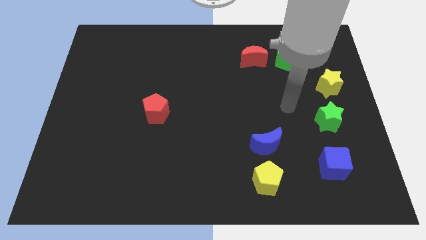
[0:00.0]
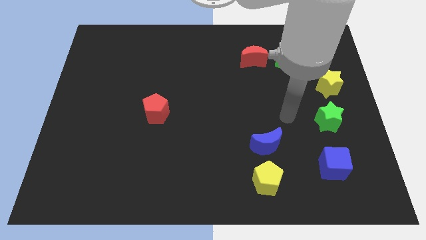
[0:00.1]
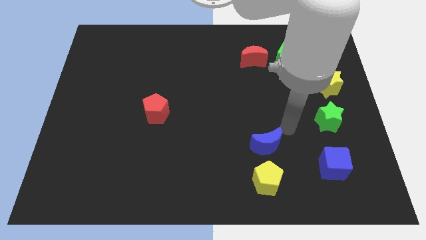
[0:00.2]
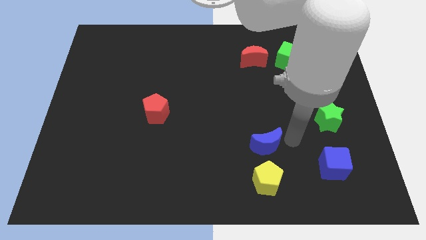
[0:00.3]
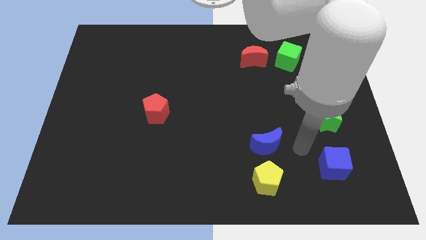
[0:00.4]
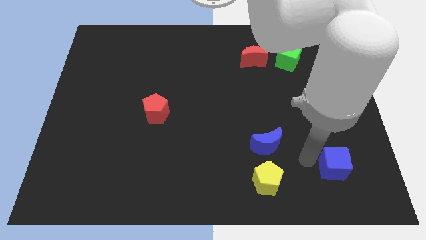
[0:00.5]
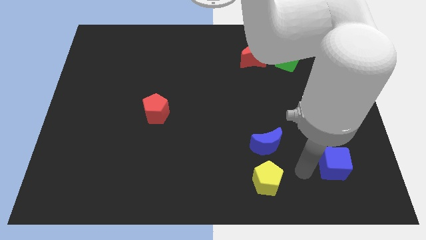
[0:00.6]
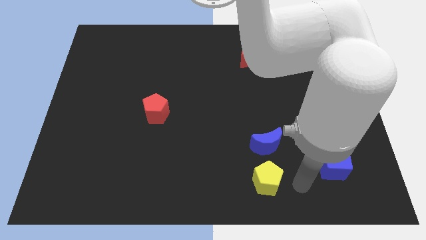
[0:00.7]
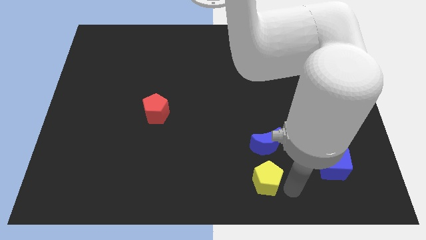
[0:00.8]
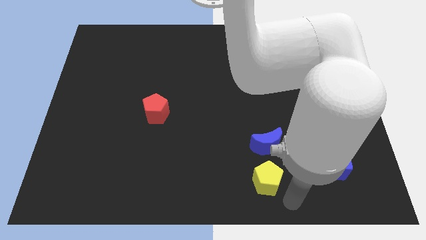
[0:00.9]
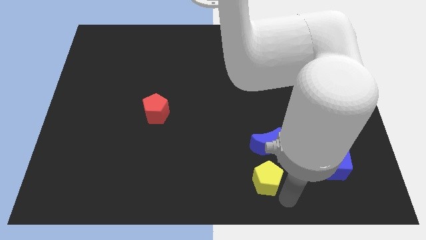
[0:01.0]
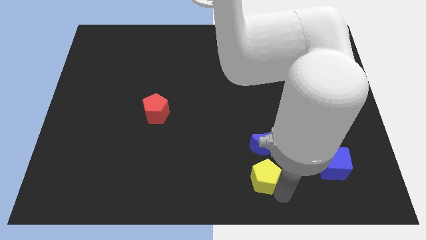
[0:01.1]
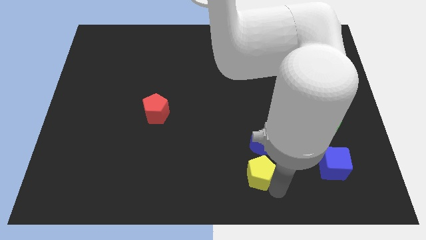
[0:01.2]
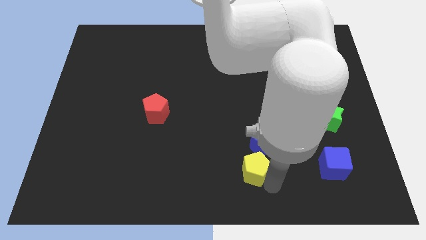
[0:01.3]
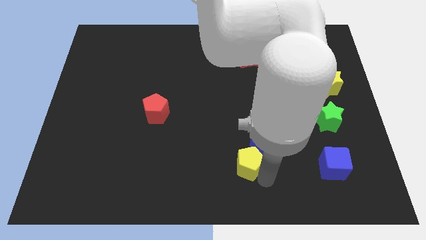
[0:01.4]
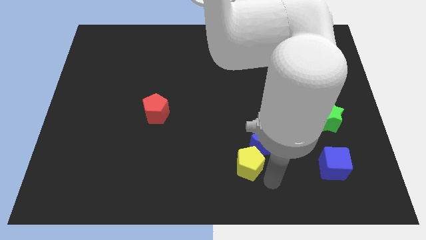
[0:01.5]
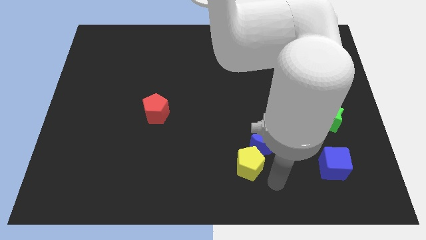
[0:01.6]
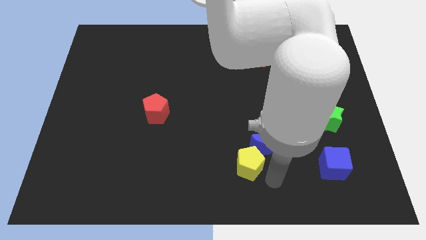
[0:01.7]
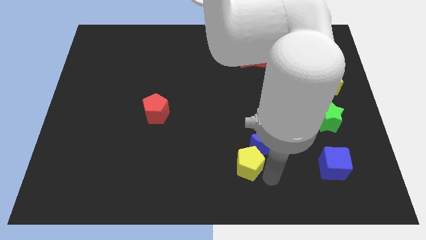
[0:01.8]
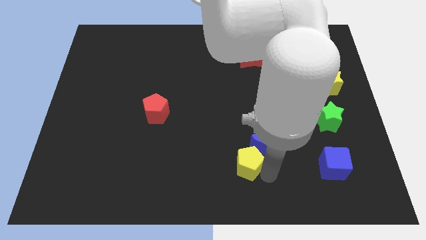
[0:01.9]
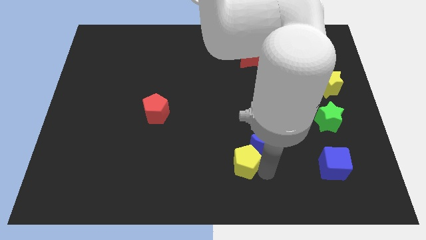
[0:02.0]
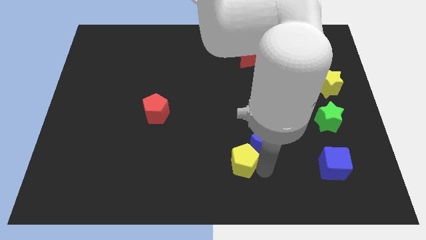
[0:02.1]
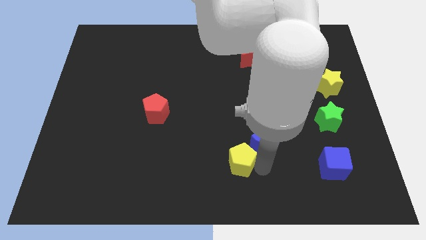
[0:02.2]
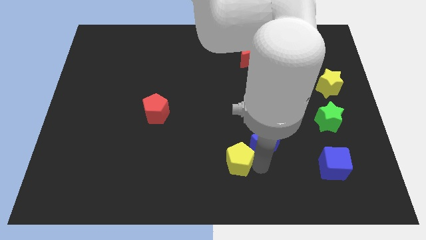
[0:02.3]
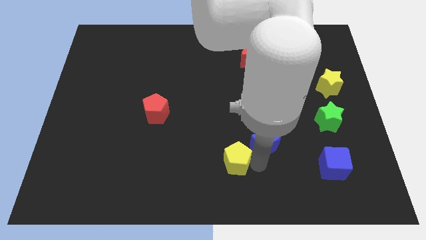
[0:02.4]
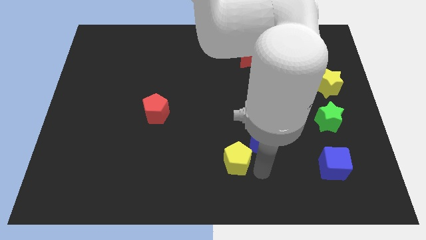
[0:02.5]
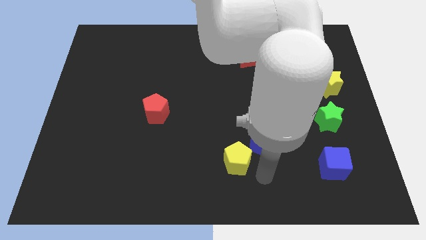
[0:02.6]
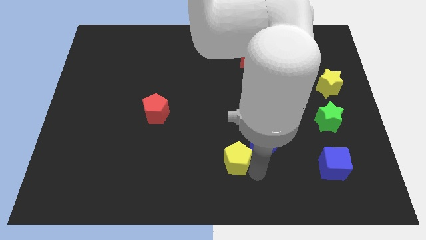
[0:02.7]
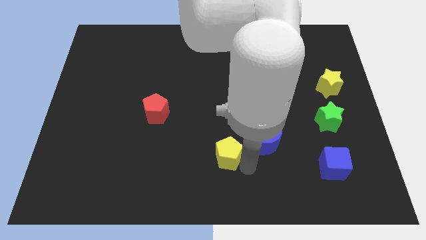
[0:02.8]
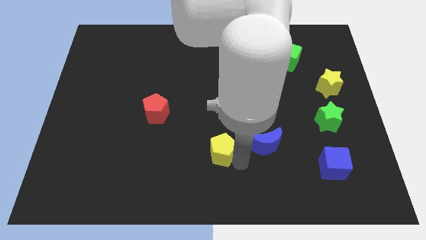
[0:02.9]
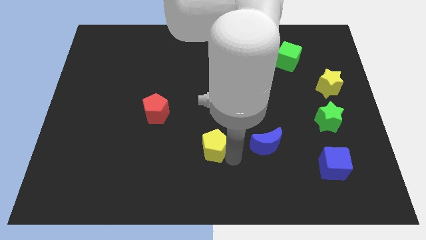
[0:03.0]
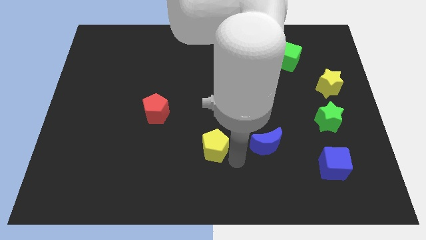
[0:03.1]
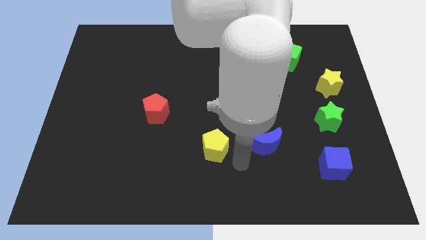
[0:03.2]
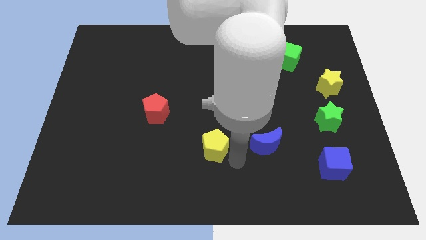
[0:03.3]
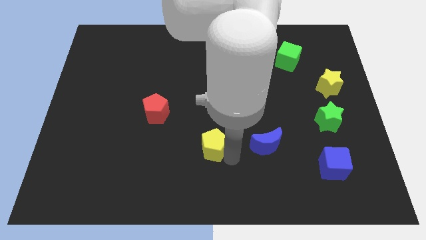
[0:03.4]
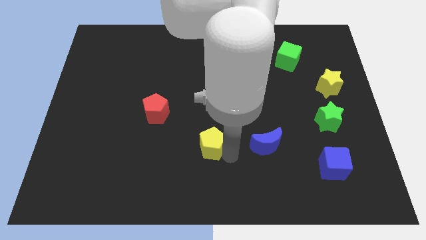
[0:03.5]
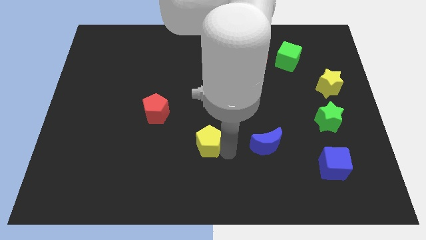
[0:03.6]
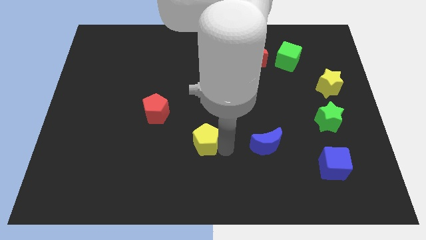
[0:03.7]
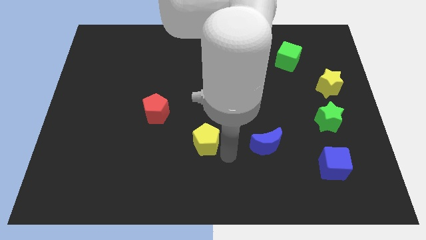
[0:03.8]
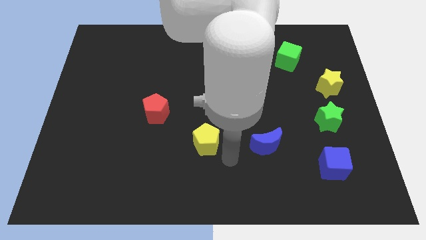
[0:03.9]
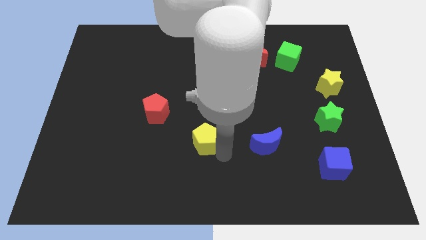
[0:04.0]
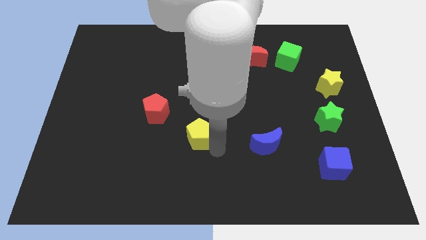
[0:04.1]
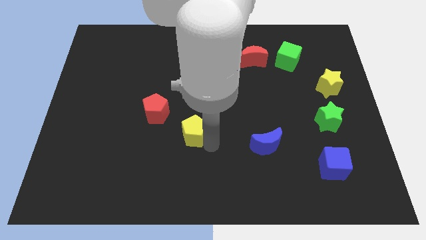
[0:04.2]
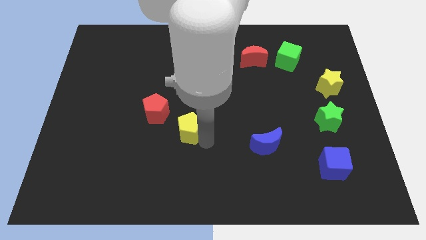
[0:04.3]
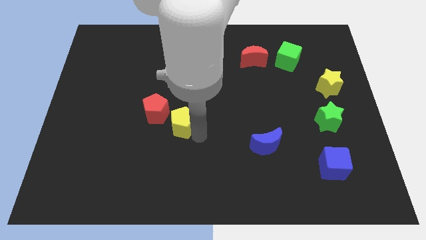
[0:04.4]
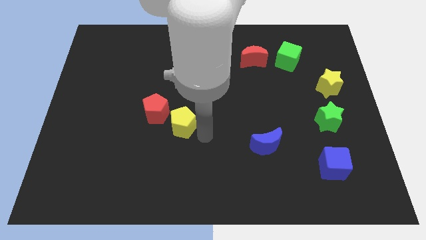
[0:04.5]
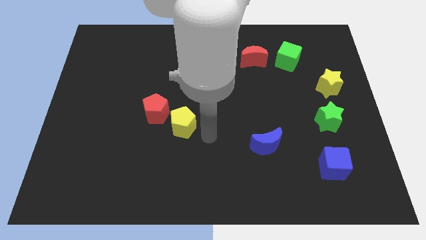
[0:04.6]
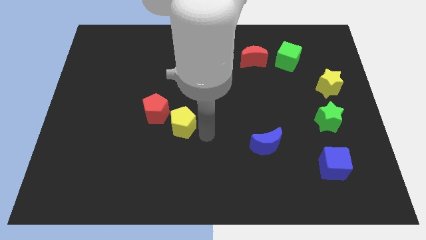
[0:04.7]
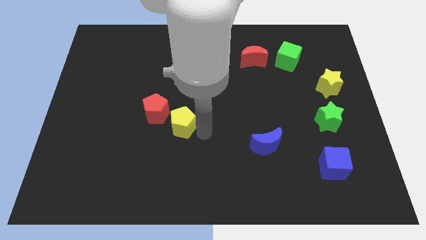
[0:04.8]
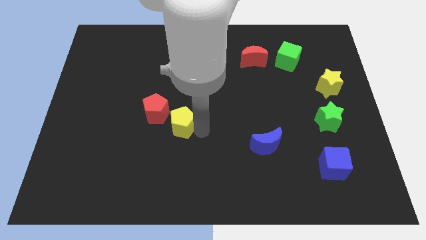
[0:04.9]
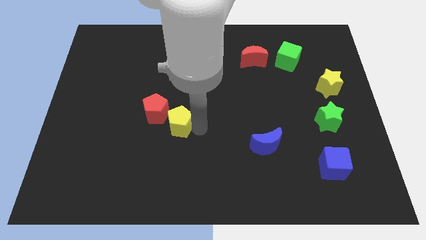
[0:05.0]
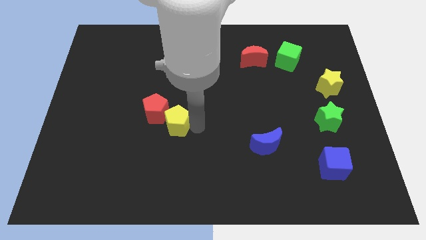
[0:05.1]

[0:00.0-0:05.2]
push the yellow pentagon close to the red pentagon

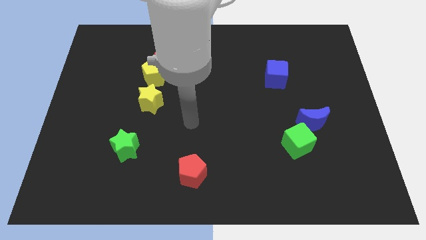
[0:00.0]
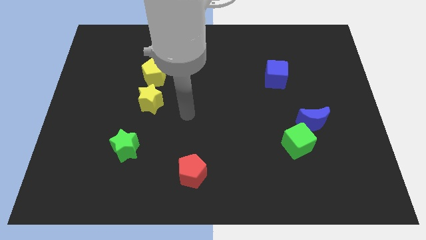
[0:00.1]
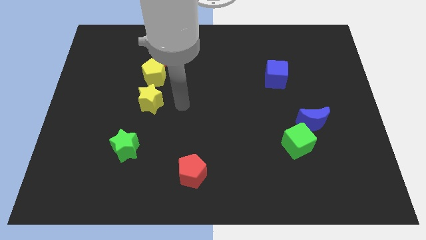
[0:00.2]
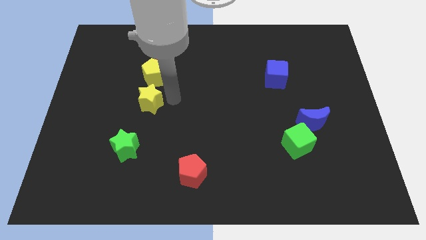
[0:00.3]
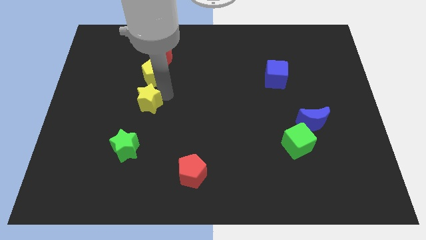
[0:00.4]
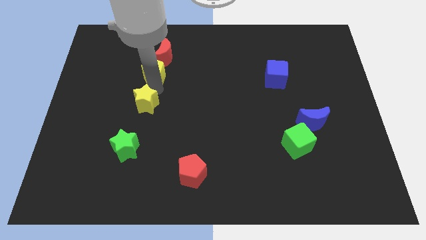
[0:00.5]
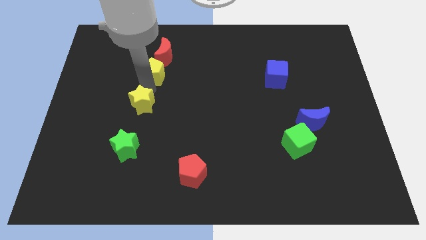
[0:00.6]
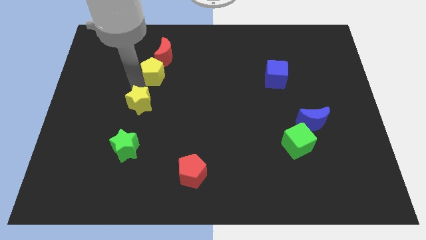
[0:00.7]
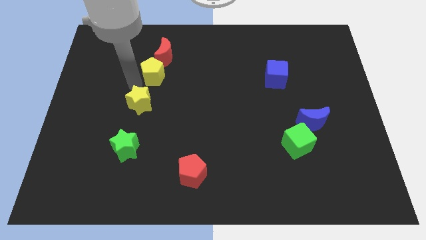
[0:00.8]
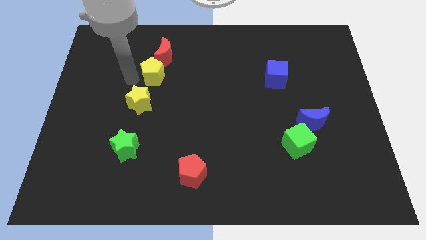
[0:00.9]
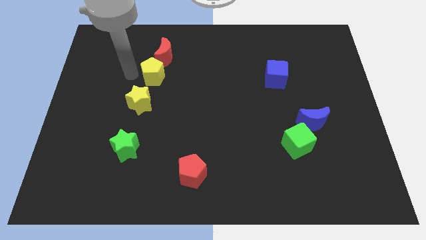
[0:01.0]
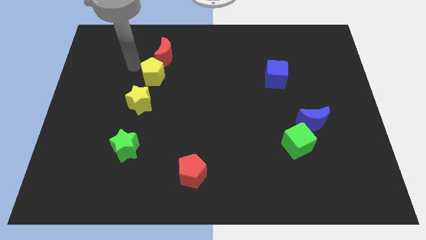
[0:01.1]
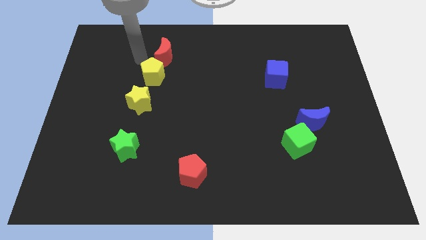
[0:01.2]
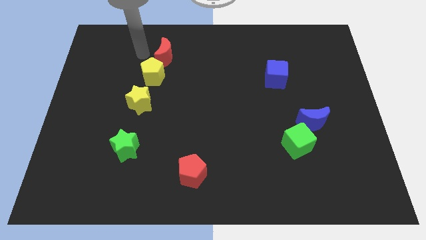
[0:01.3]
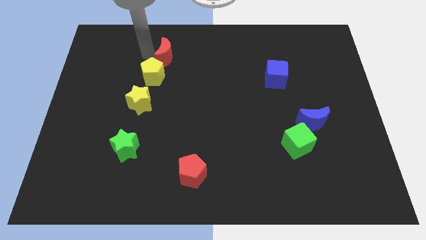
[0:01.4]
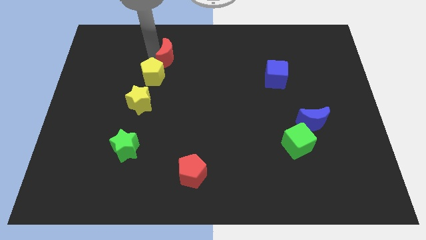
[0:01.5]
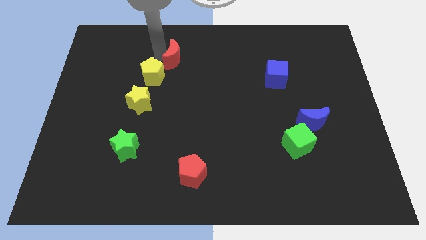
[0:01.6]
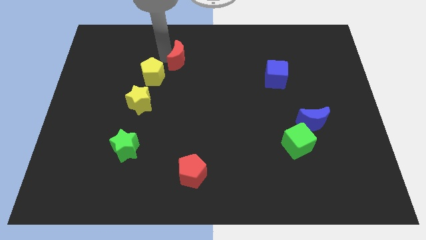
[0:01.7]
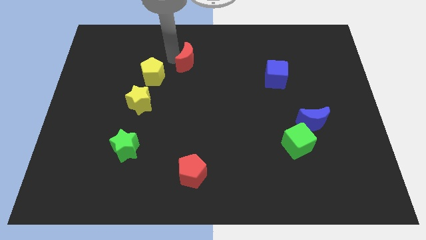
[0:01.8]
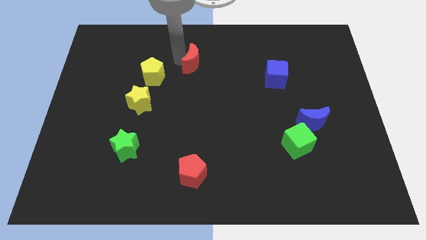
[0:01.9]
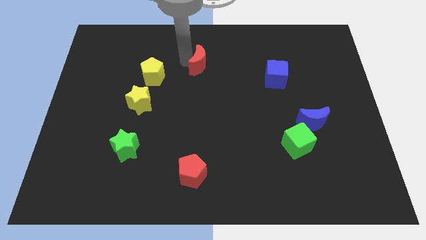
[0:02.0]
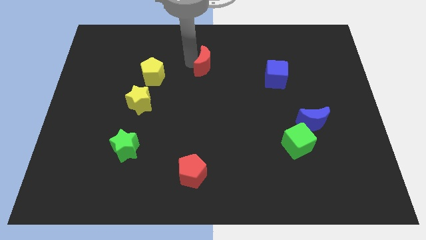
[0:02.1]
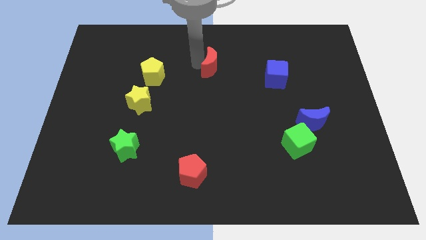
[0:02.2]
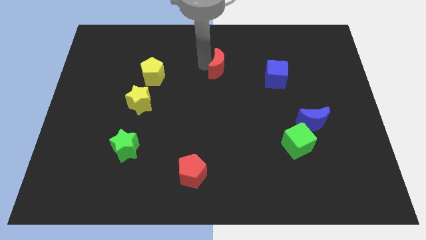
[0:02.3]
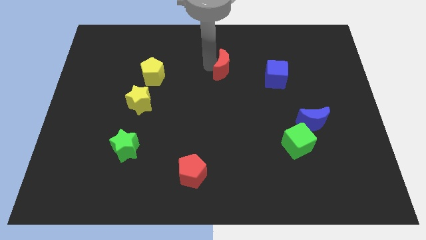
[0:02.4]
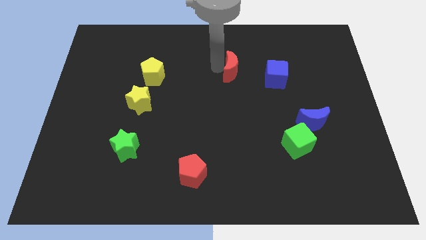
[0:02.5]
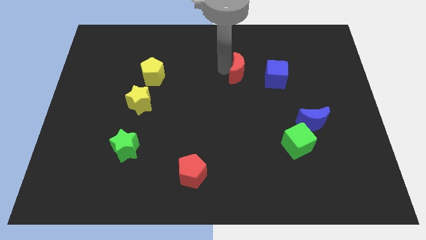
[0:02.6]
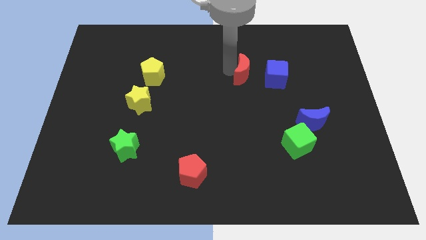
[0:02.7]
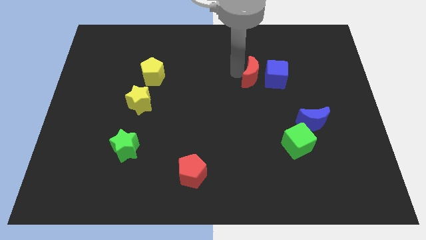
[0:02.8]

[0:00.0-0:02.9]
slide the red moon close to the blue cube
